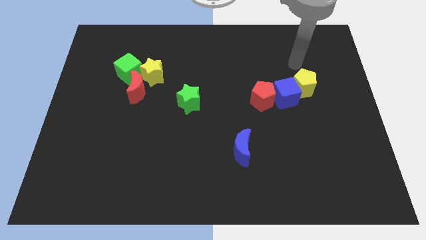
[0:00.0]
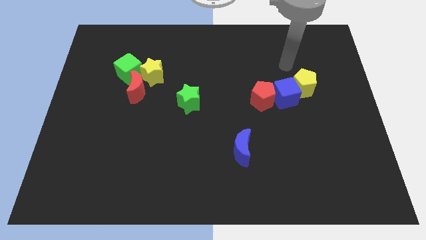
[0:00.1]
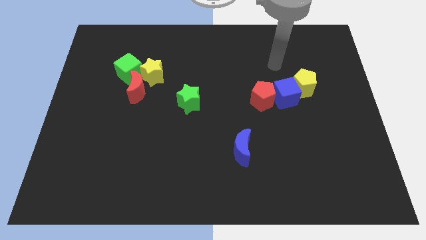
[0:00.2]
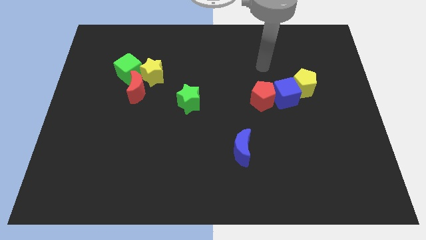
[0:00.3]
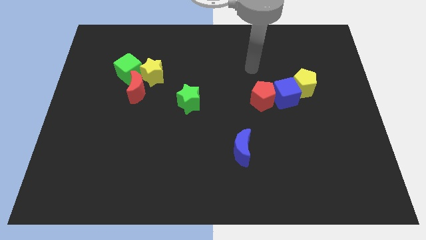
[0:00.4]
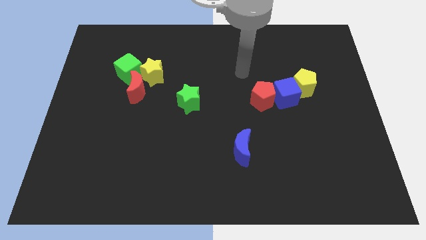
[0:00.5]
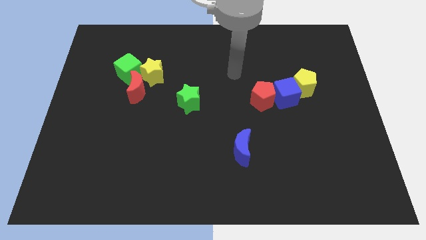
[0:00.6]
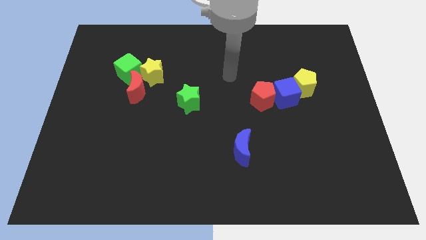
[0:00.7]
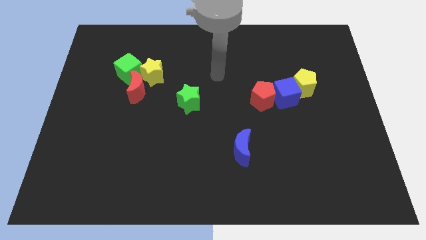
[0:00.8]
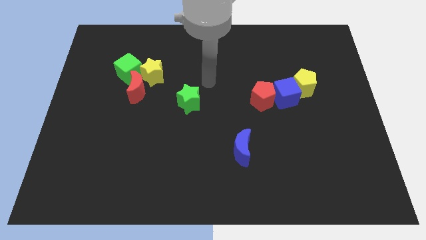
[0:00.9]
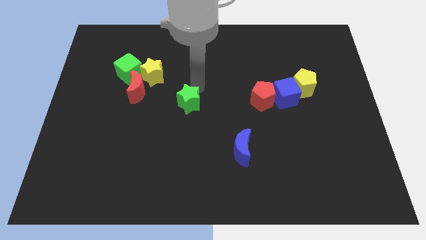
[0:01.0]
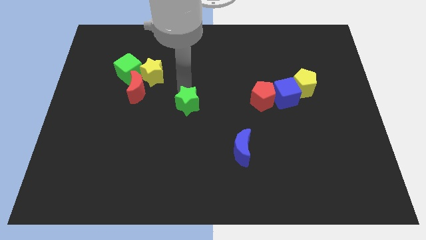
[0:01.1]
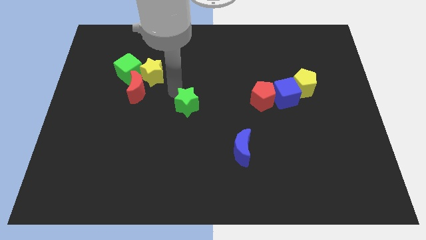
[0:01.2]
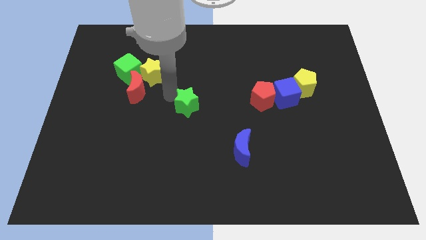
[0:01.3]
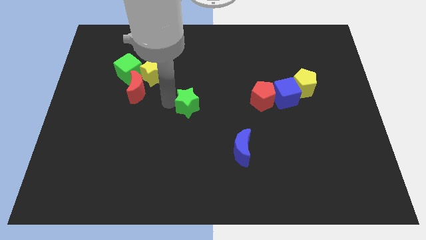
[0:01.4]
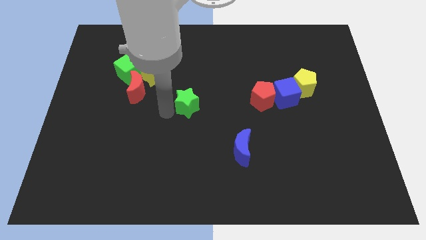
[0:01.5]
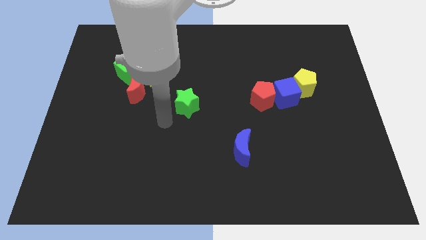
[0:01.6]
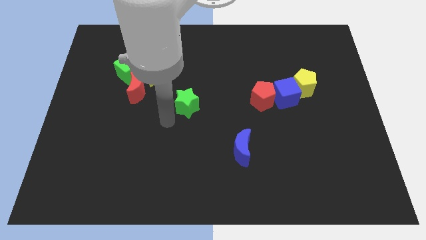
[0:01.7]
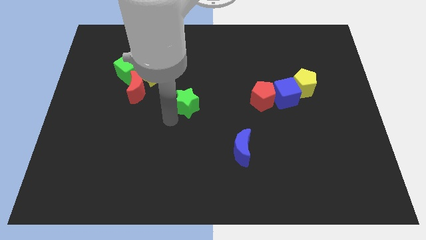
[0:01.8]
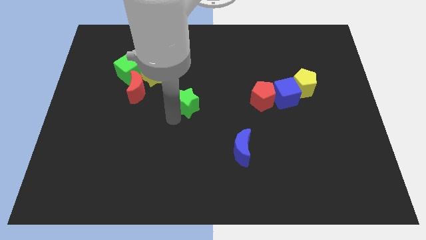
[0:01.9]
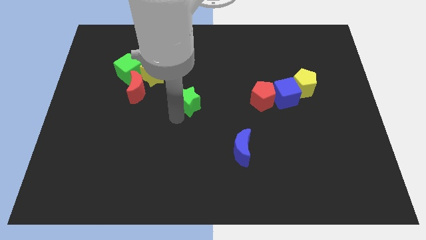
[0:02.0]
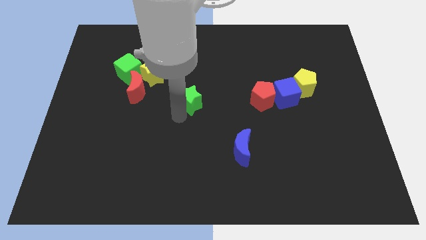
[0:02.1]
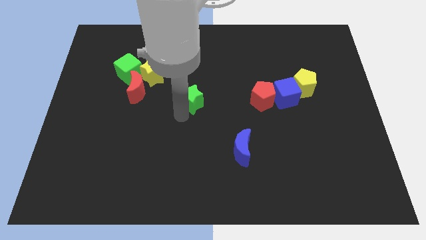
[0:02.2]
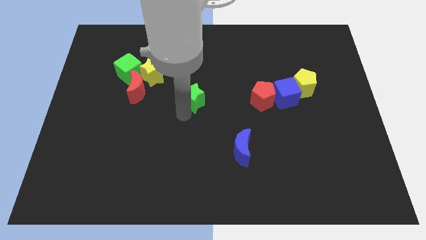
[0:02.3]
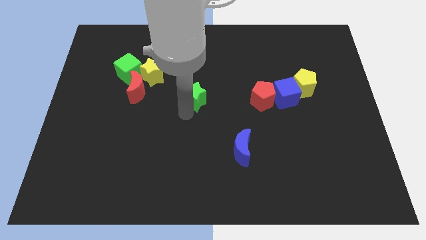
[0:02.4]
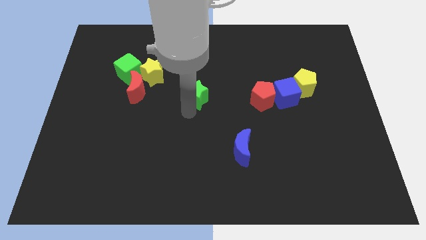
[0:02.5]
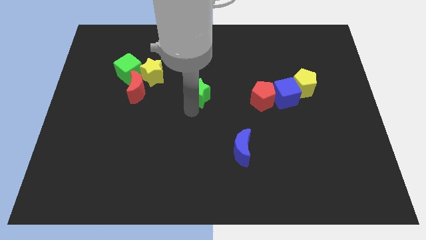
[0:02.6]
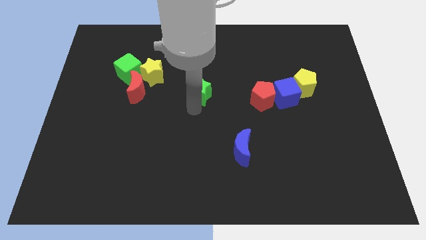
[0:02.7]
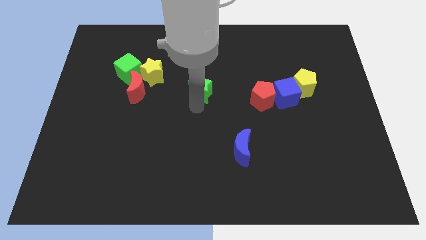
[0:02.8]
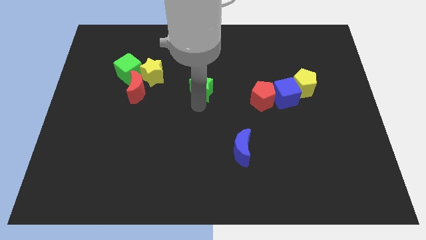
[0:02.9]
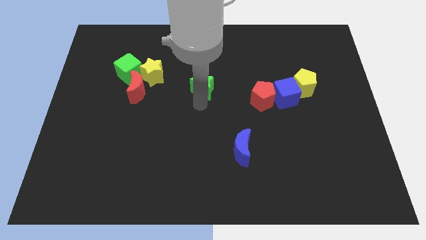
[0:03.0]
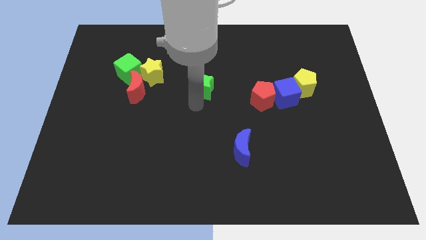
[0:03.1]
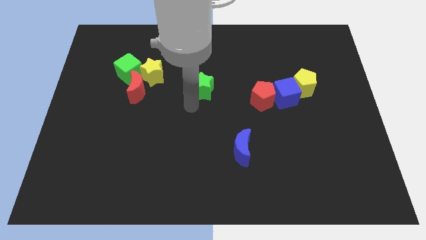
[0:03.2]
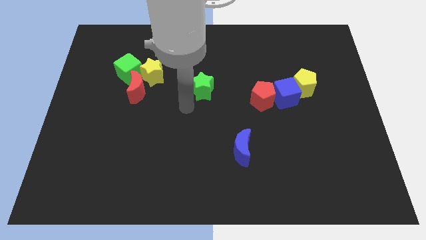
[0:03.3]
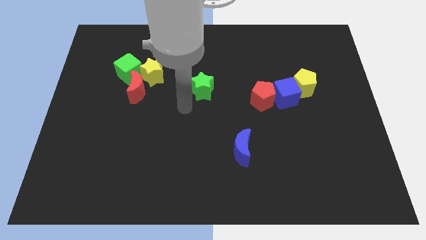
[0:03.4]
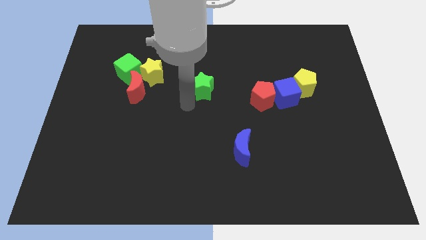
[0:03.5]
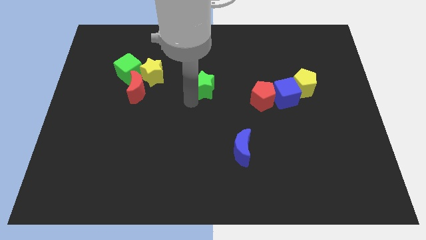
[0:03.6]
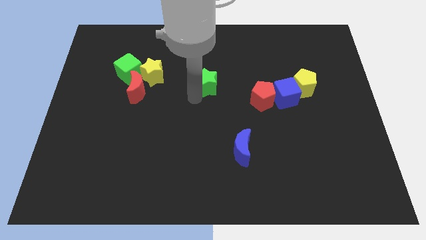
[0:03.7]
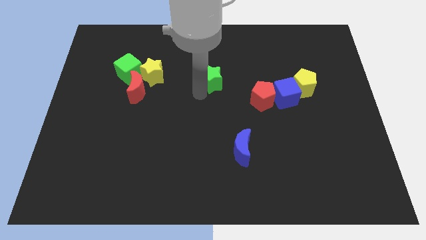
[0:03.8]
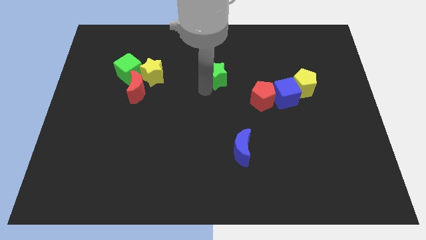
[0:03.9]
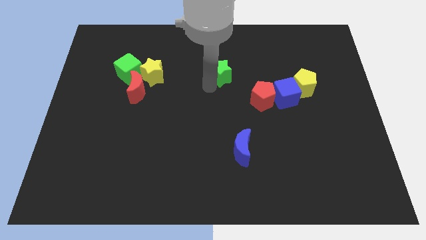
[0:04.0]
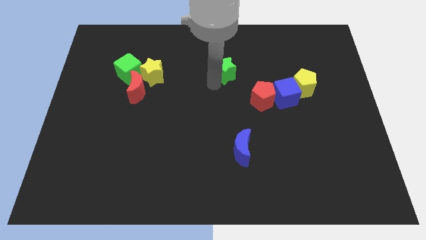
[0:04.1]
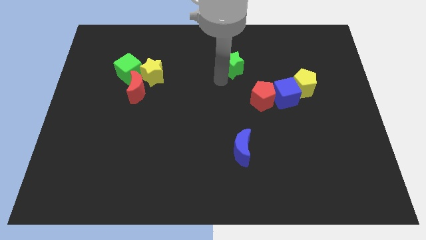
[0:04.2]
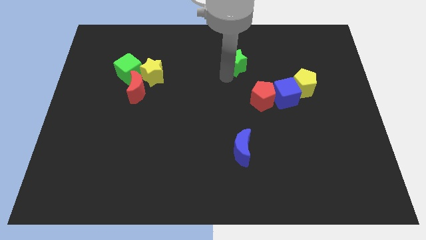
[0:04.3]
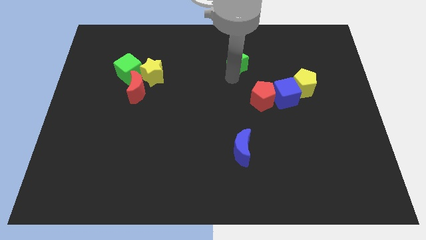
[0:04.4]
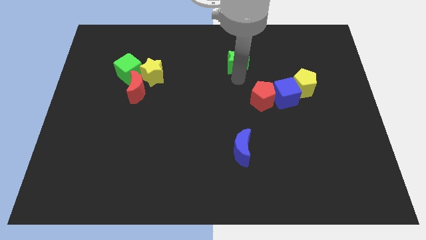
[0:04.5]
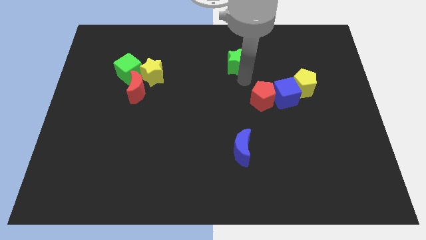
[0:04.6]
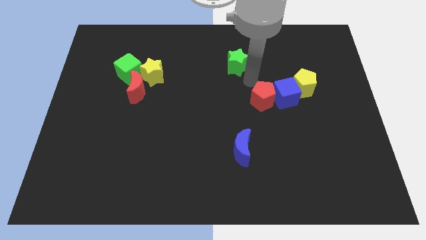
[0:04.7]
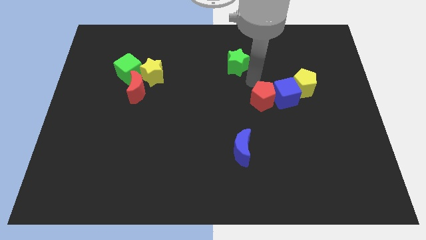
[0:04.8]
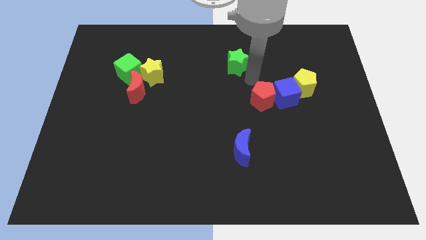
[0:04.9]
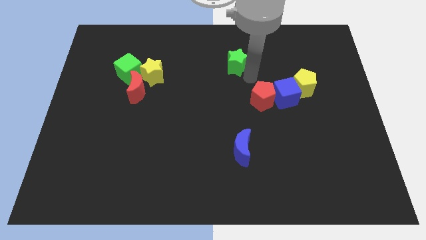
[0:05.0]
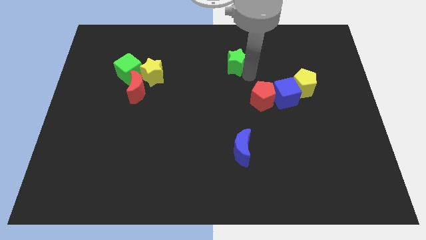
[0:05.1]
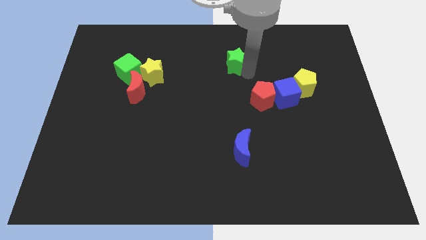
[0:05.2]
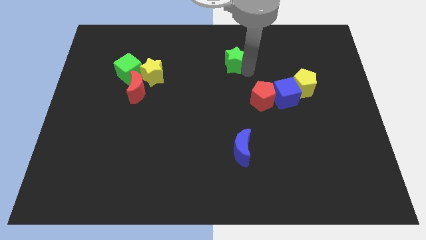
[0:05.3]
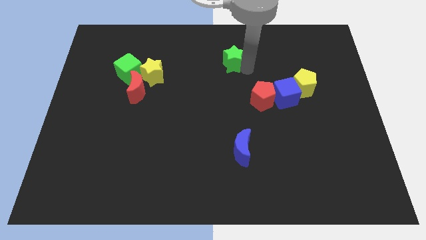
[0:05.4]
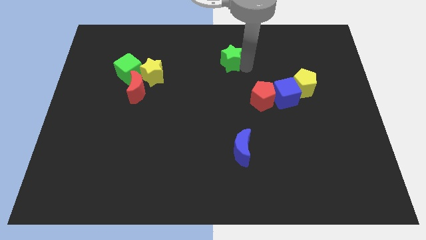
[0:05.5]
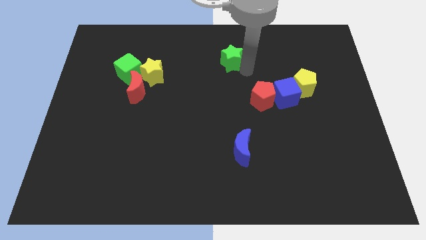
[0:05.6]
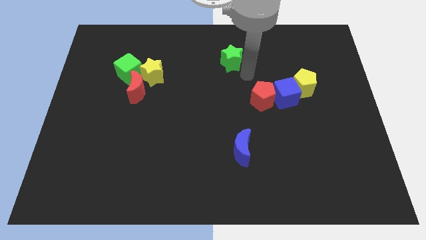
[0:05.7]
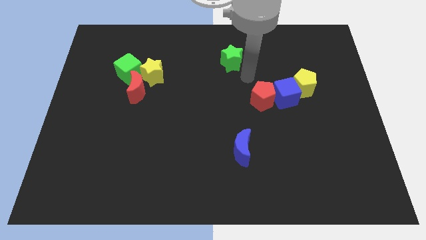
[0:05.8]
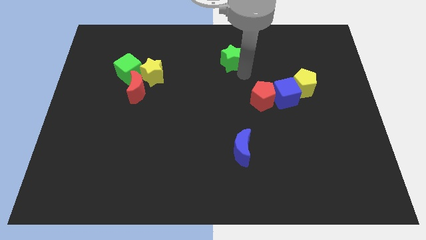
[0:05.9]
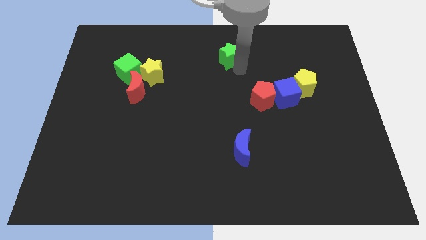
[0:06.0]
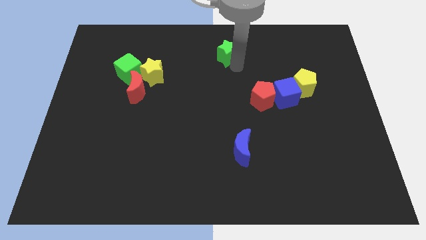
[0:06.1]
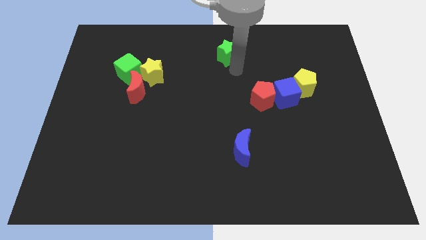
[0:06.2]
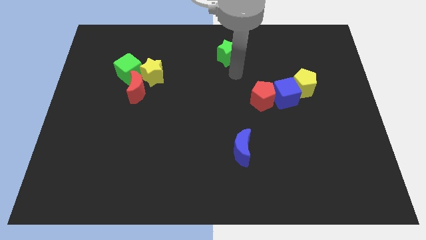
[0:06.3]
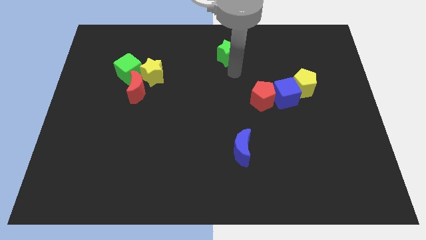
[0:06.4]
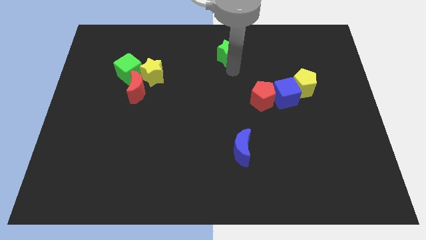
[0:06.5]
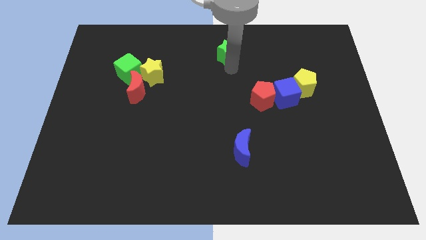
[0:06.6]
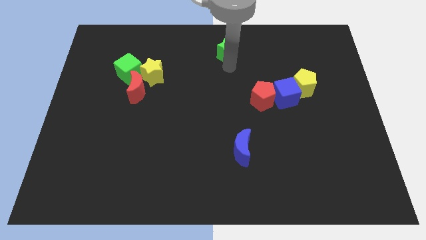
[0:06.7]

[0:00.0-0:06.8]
slide the green star to the top side

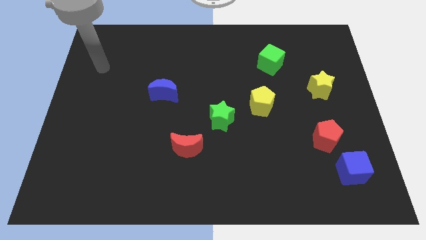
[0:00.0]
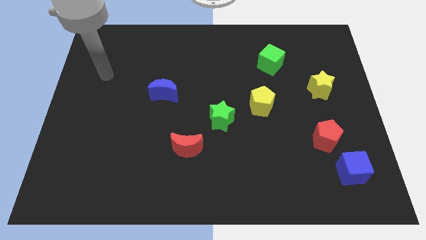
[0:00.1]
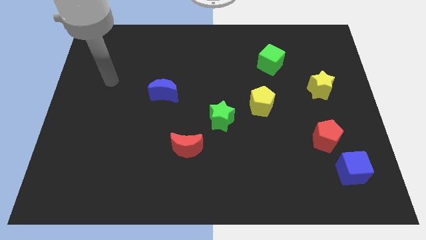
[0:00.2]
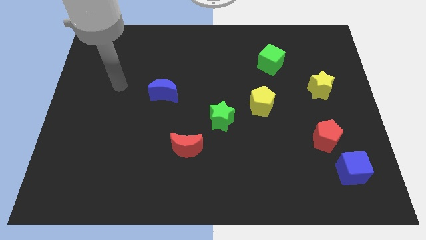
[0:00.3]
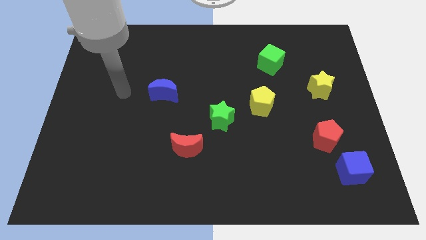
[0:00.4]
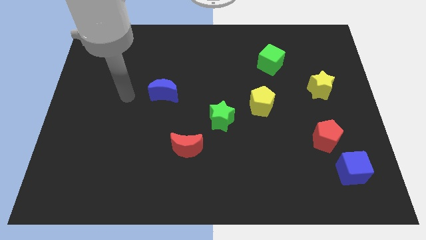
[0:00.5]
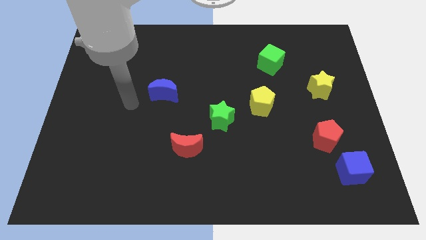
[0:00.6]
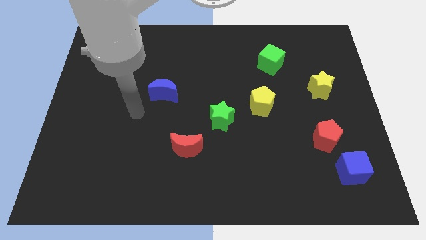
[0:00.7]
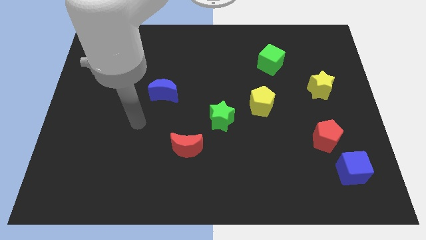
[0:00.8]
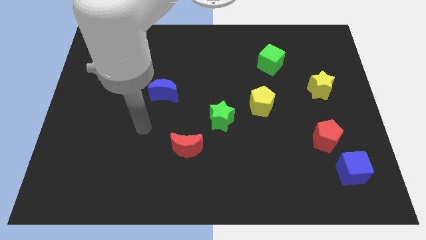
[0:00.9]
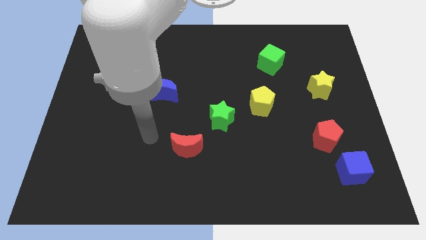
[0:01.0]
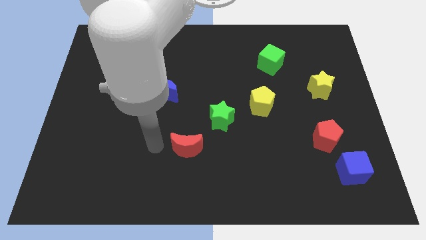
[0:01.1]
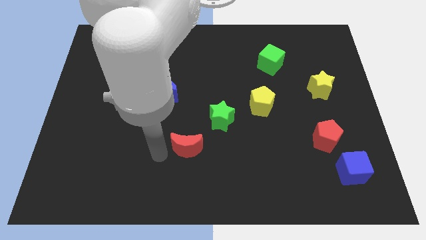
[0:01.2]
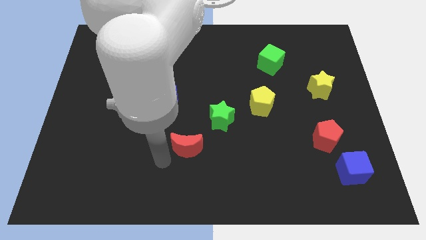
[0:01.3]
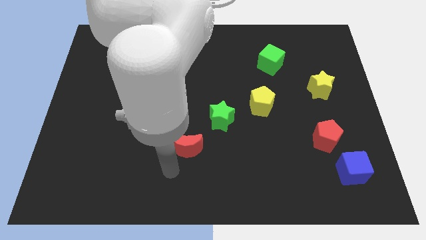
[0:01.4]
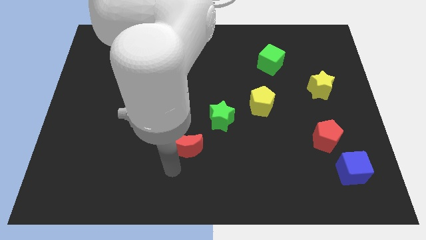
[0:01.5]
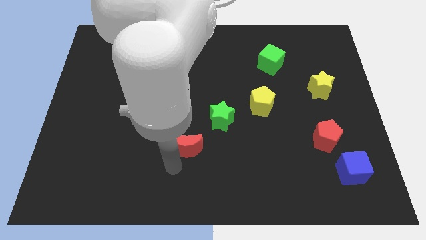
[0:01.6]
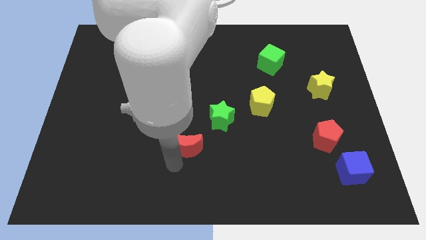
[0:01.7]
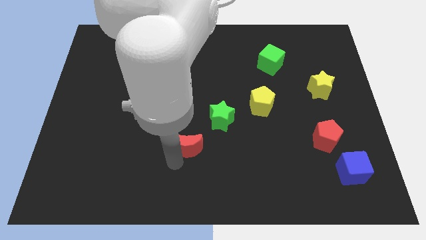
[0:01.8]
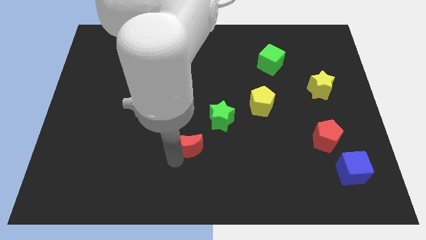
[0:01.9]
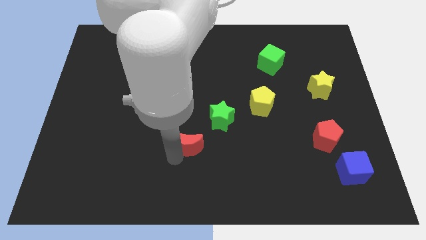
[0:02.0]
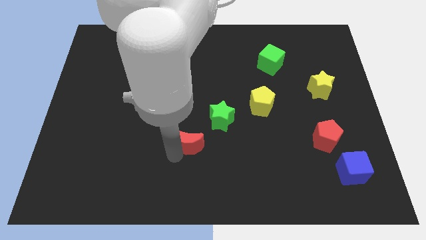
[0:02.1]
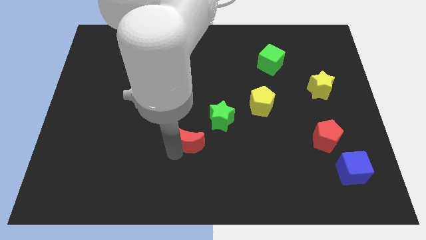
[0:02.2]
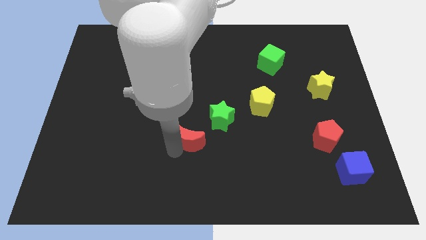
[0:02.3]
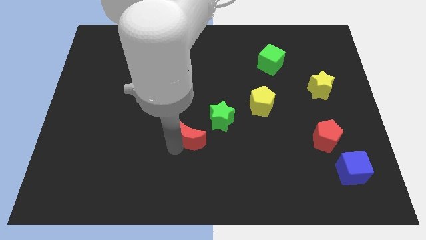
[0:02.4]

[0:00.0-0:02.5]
move the red moon to the middle
